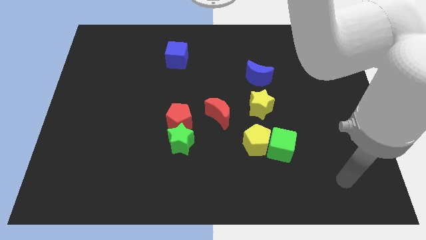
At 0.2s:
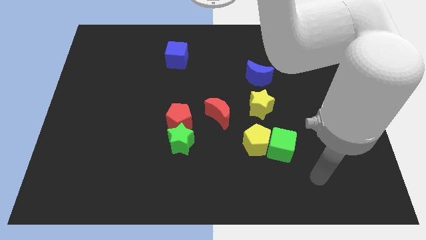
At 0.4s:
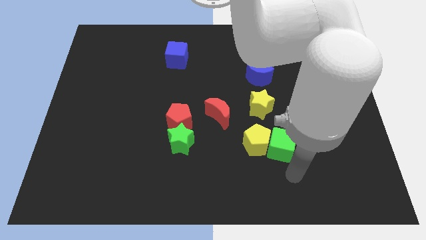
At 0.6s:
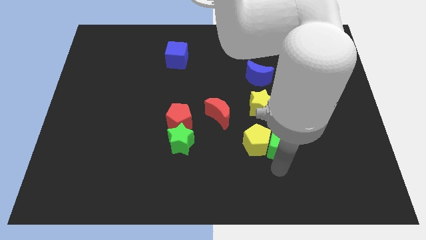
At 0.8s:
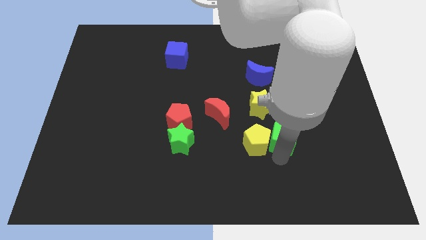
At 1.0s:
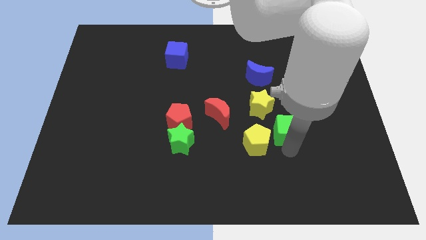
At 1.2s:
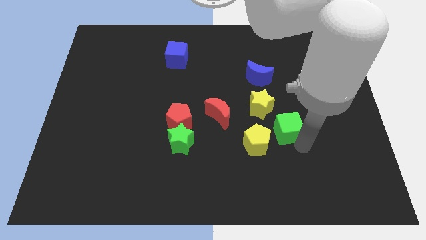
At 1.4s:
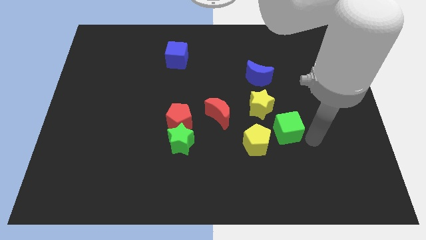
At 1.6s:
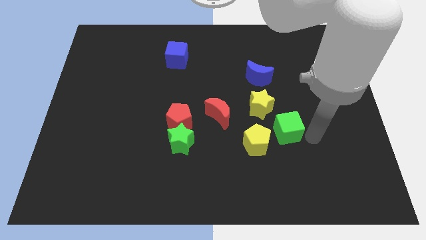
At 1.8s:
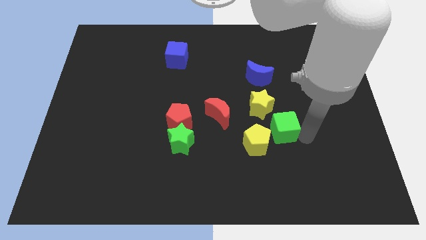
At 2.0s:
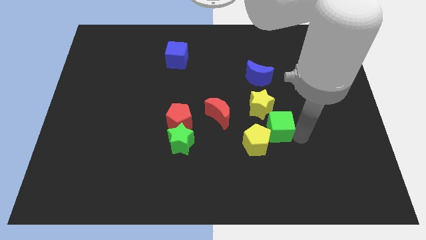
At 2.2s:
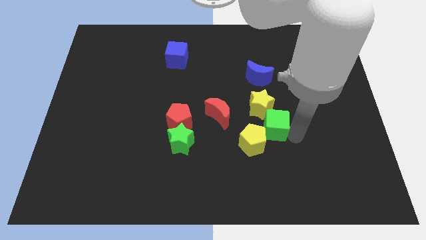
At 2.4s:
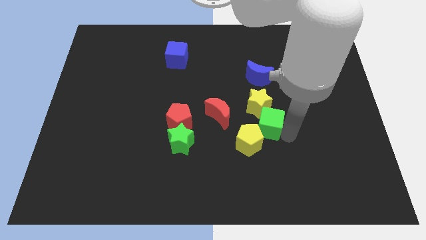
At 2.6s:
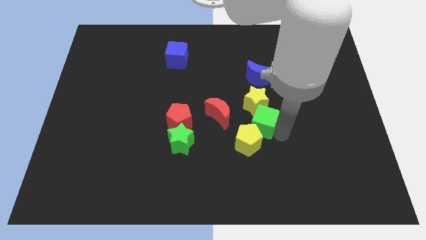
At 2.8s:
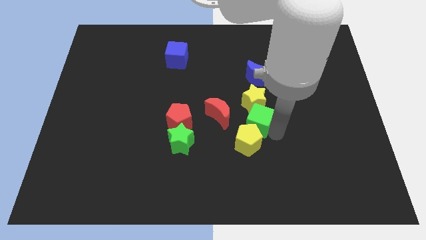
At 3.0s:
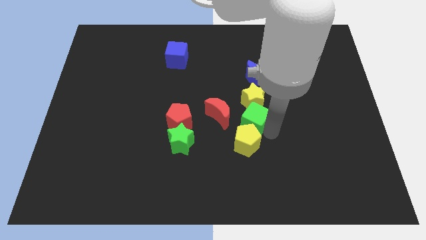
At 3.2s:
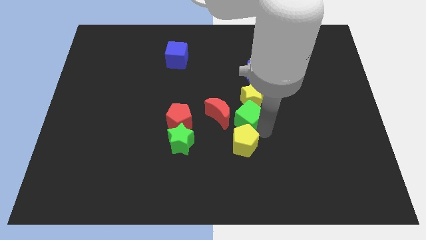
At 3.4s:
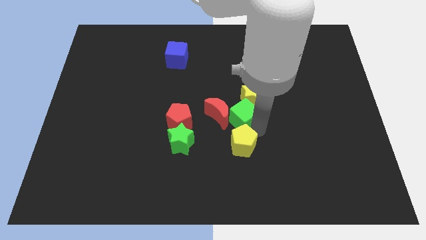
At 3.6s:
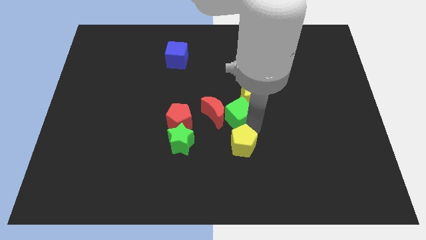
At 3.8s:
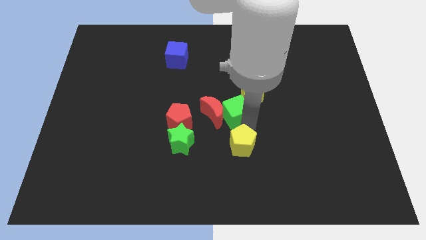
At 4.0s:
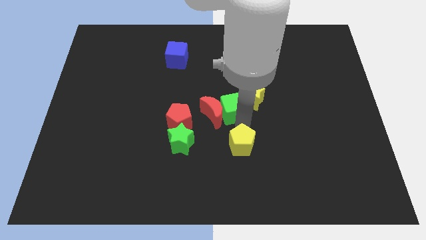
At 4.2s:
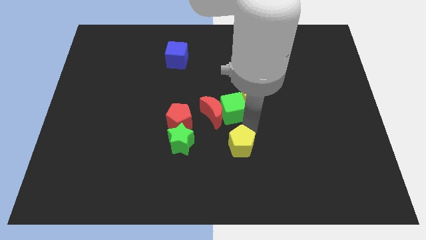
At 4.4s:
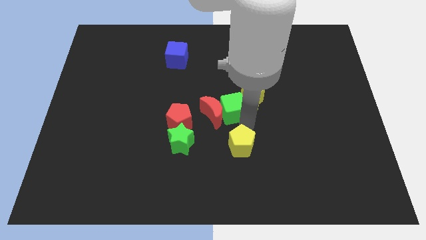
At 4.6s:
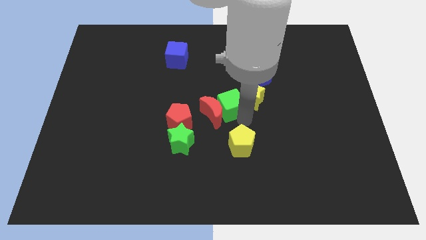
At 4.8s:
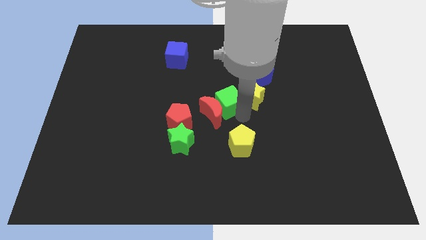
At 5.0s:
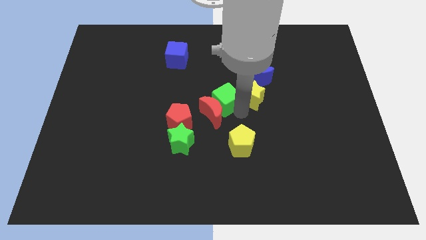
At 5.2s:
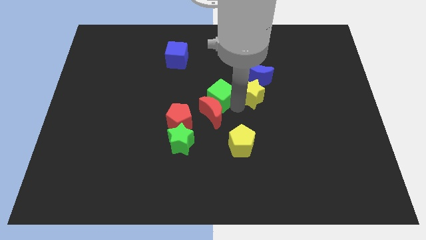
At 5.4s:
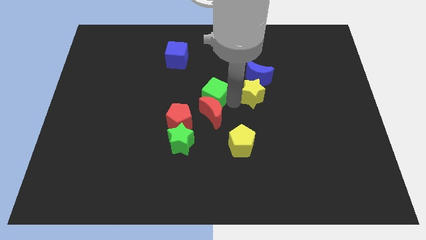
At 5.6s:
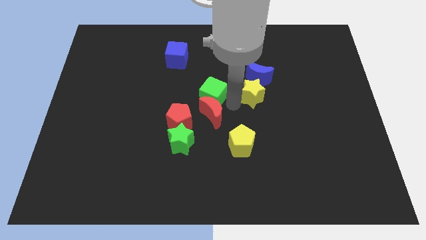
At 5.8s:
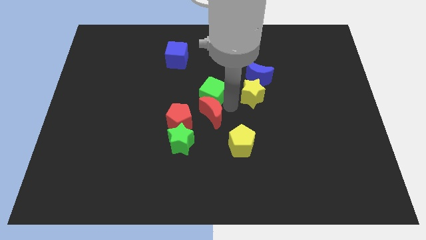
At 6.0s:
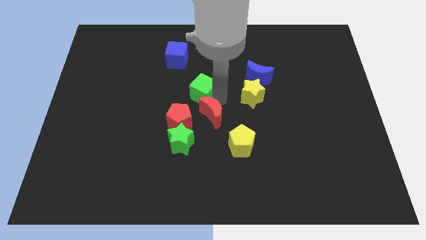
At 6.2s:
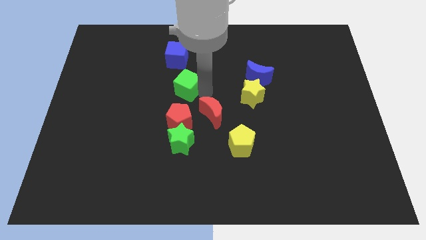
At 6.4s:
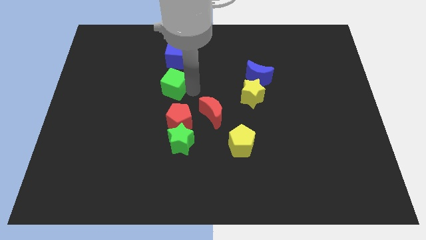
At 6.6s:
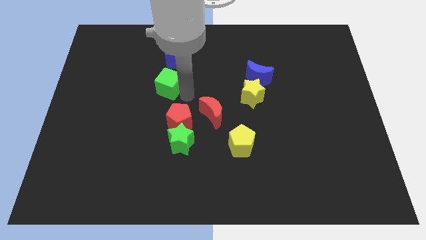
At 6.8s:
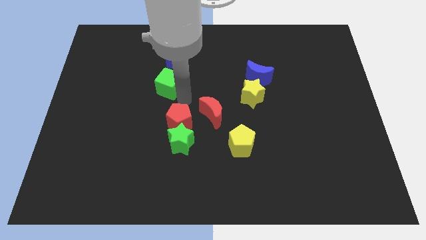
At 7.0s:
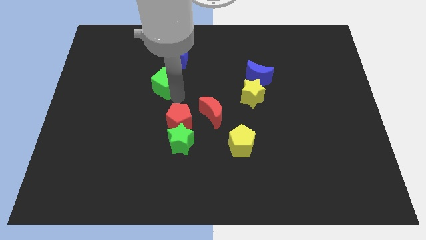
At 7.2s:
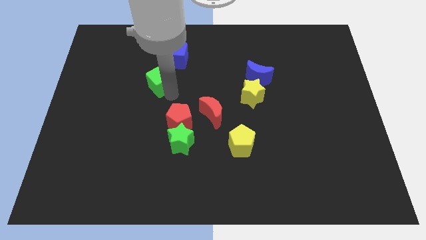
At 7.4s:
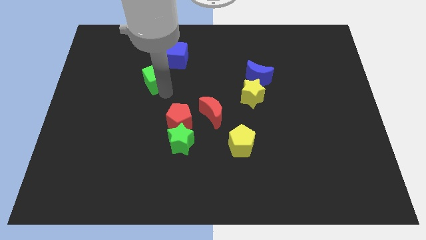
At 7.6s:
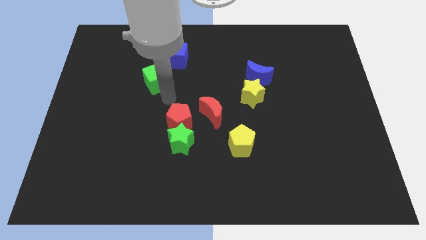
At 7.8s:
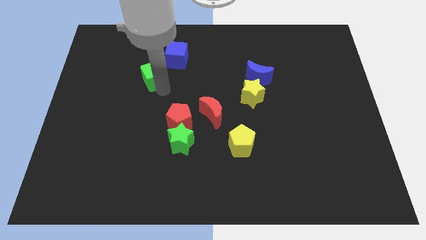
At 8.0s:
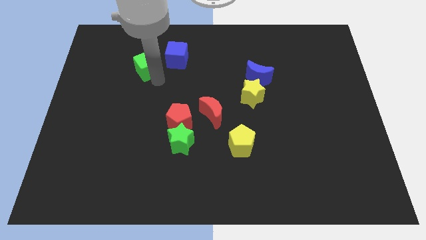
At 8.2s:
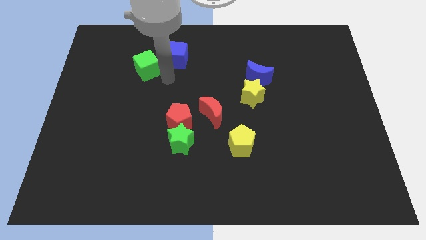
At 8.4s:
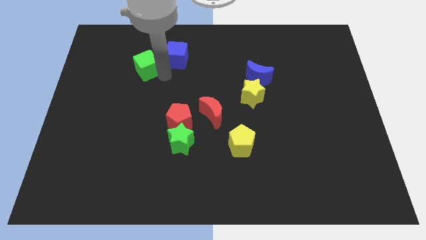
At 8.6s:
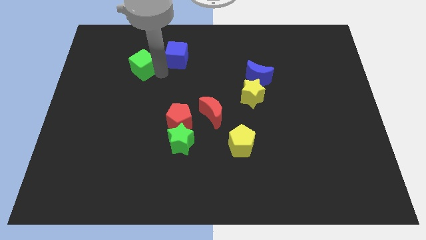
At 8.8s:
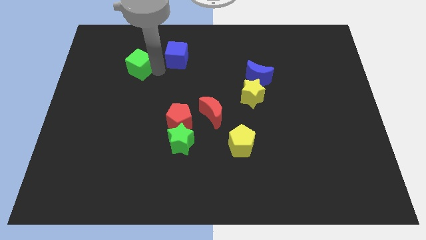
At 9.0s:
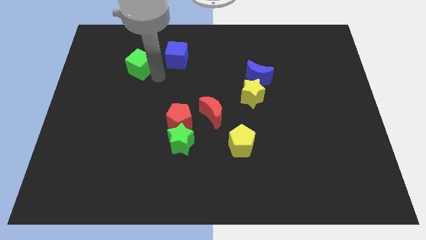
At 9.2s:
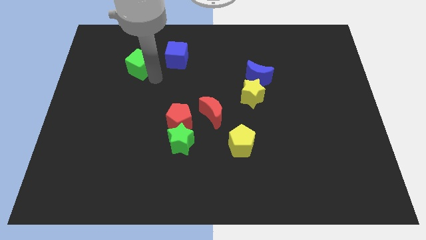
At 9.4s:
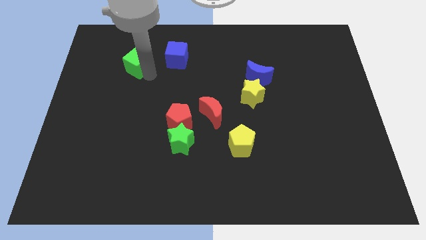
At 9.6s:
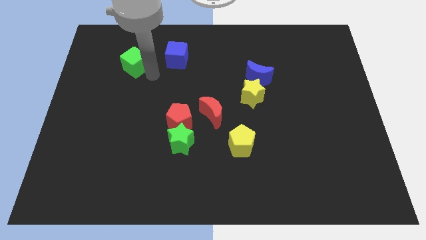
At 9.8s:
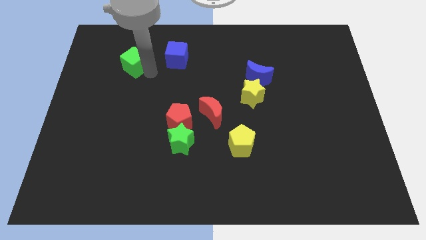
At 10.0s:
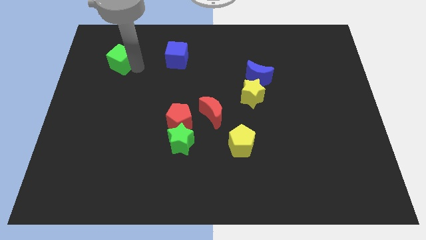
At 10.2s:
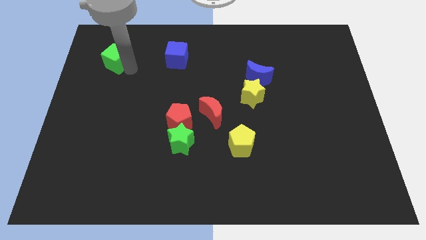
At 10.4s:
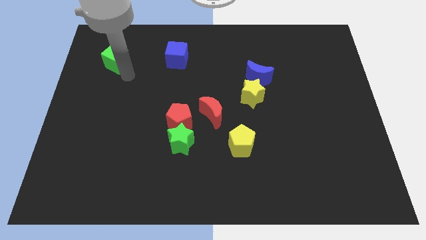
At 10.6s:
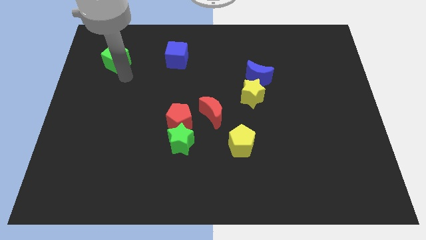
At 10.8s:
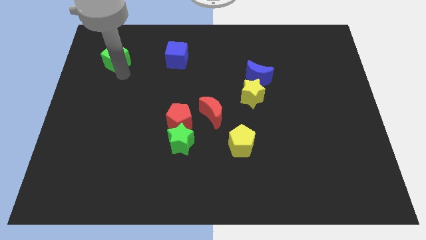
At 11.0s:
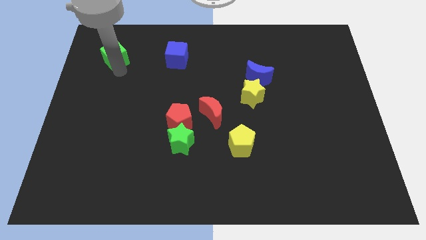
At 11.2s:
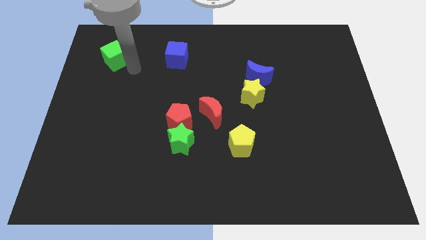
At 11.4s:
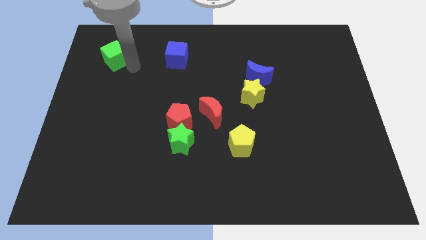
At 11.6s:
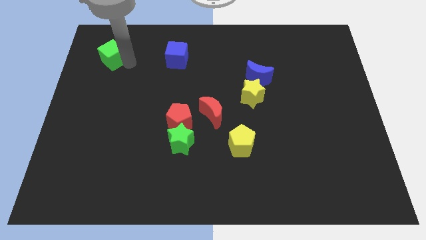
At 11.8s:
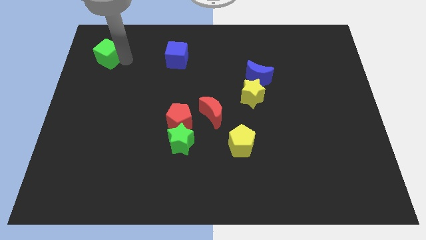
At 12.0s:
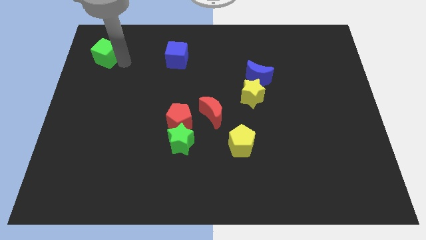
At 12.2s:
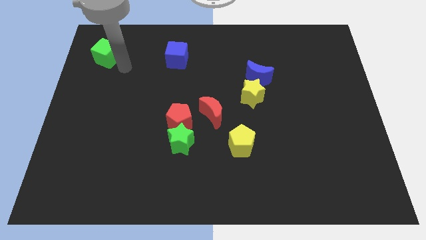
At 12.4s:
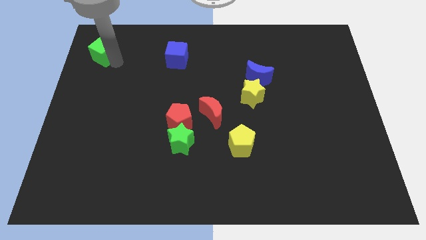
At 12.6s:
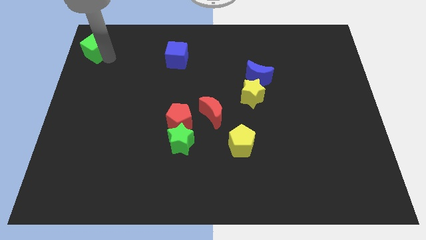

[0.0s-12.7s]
slide the green cube to the top left of the board
